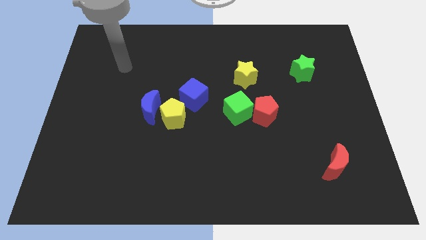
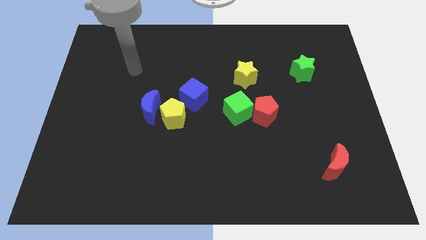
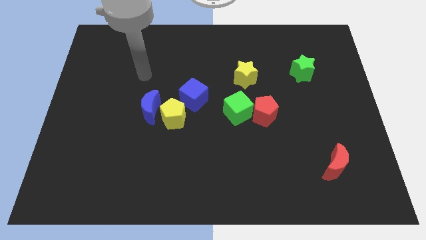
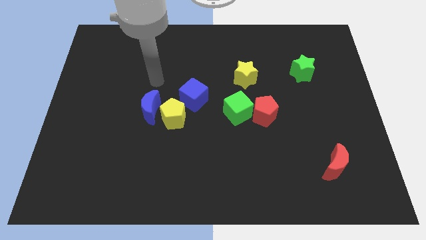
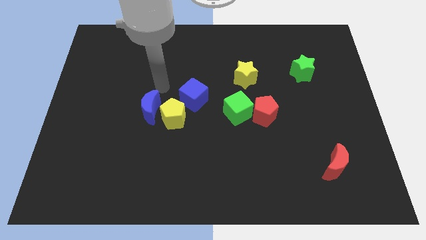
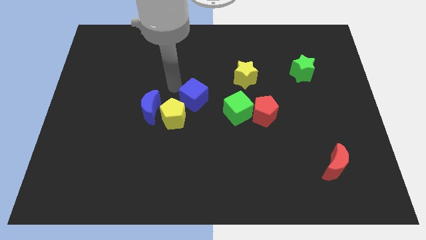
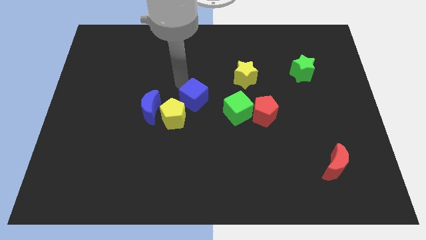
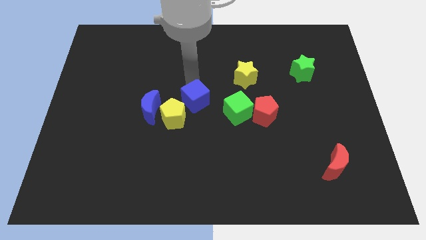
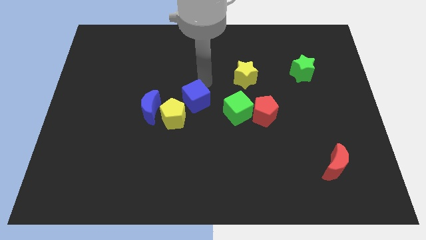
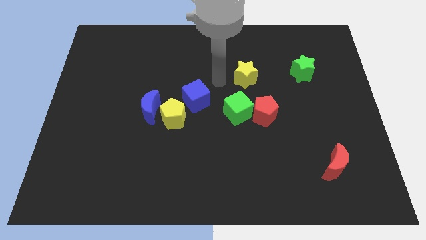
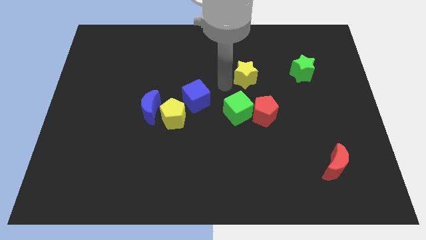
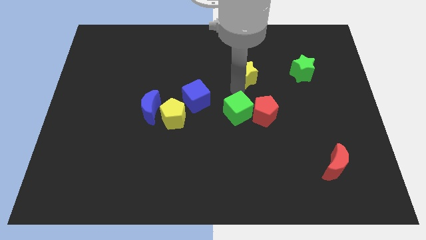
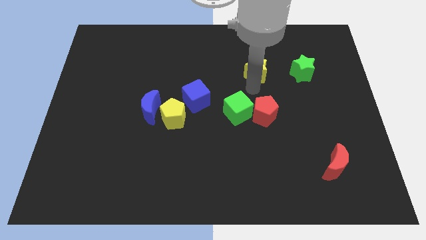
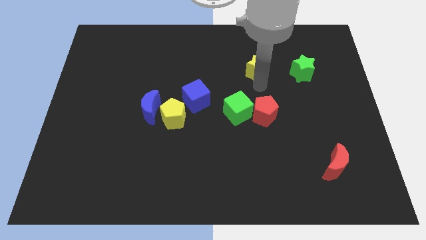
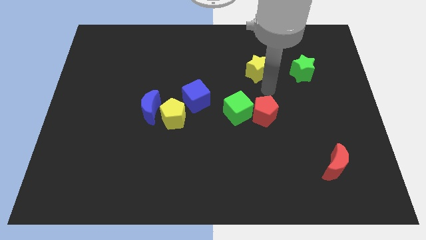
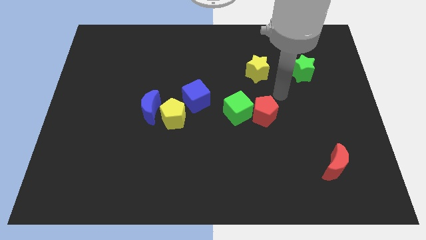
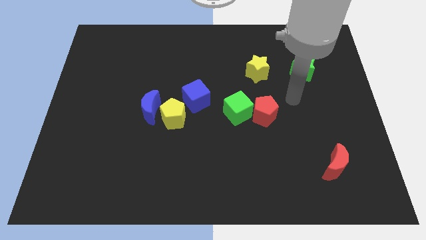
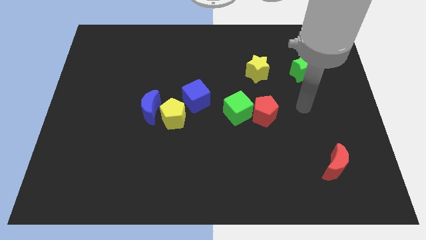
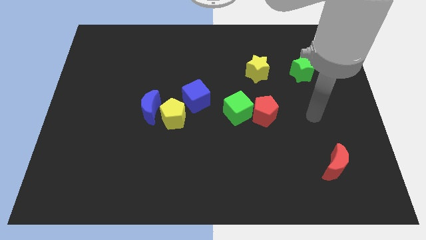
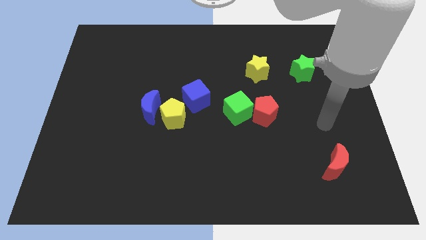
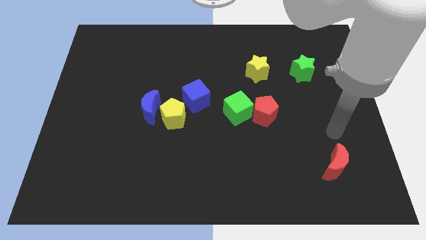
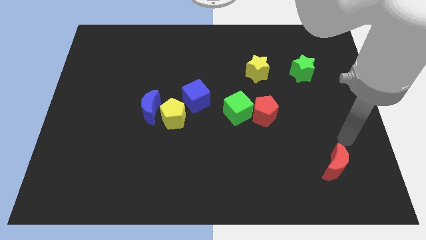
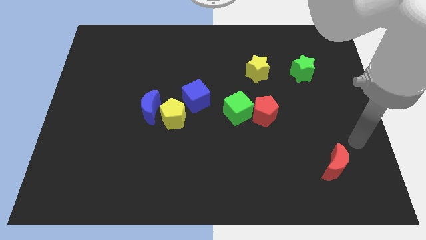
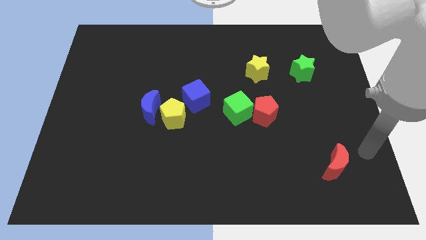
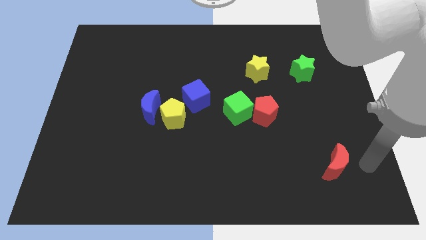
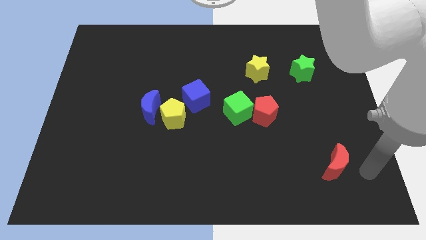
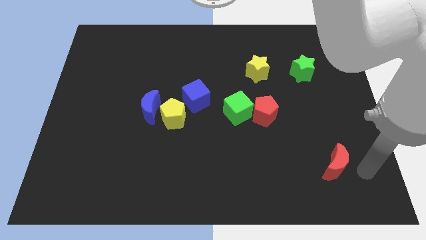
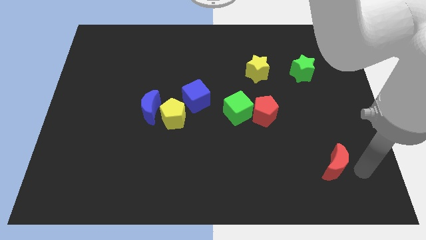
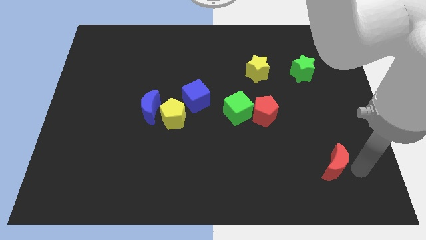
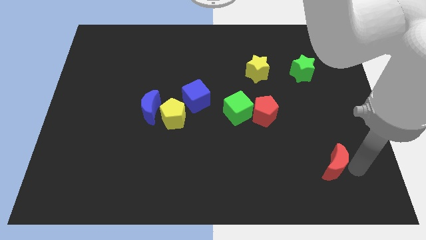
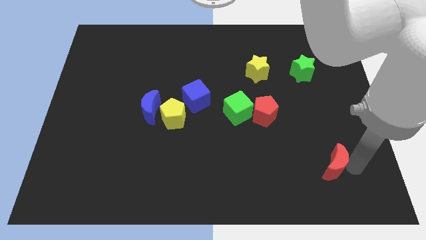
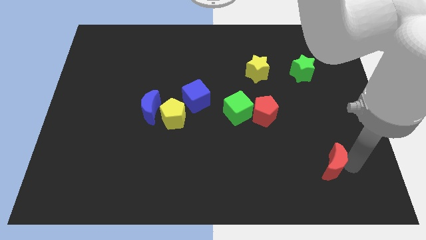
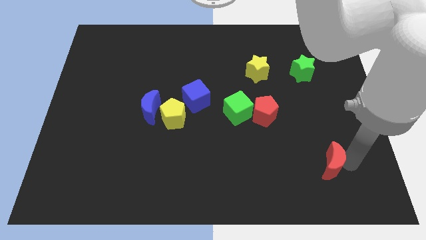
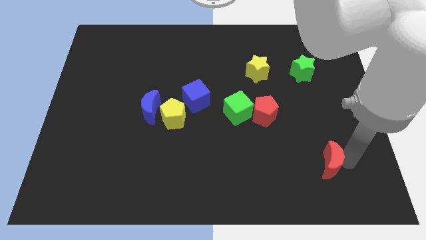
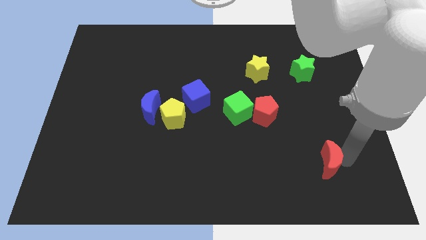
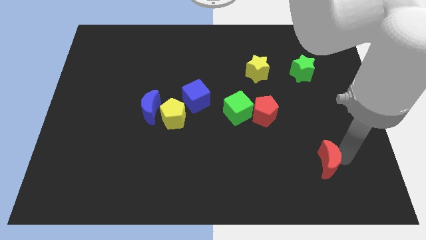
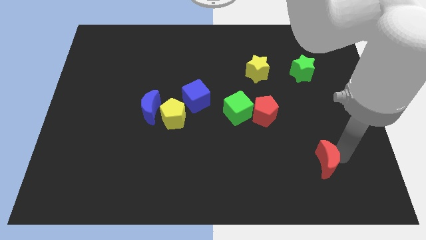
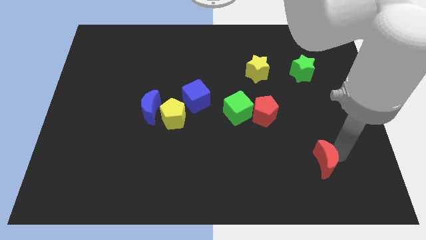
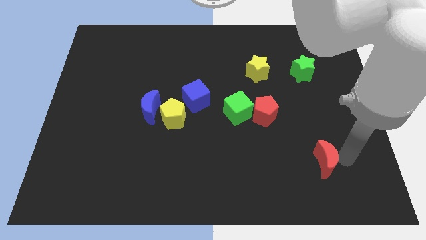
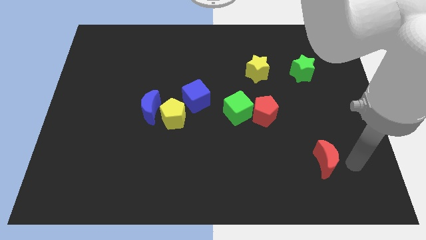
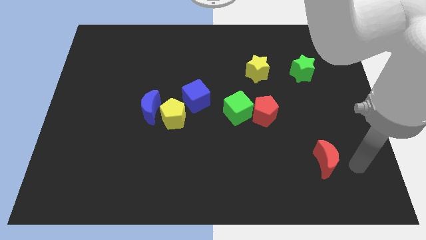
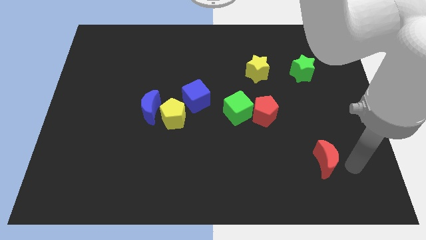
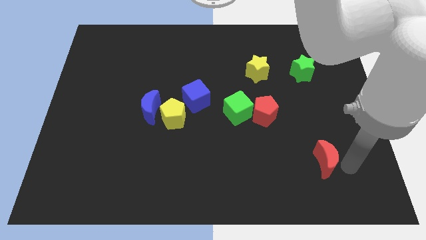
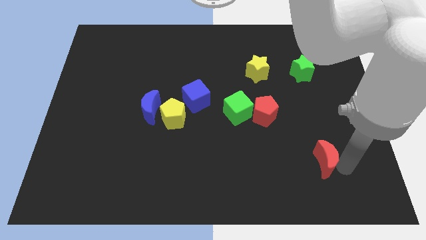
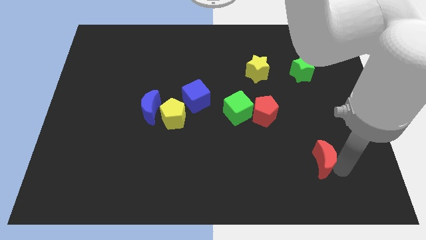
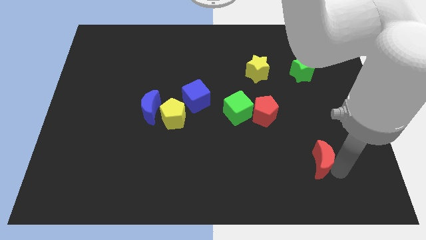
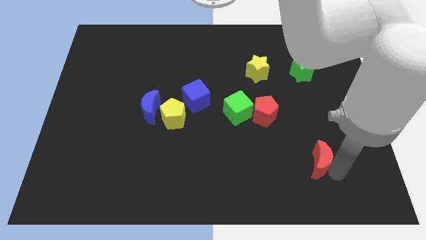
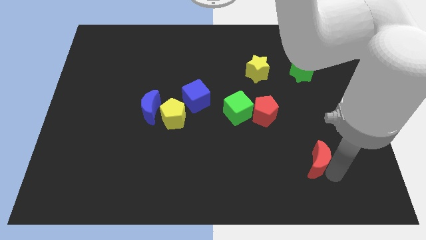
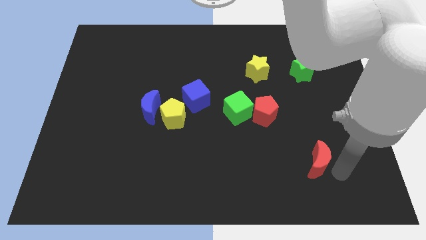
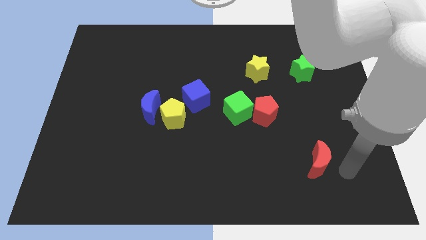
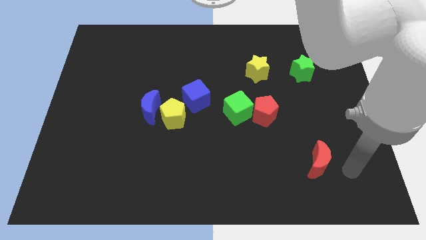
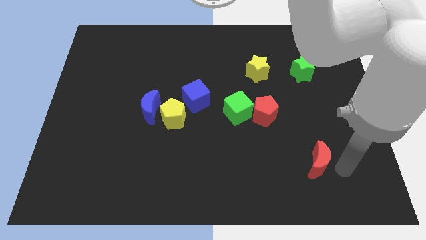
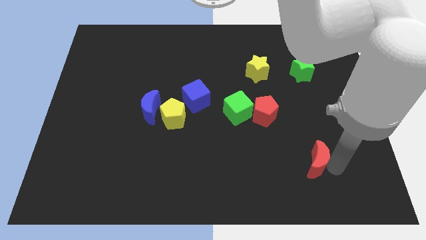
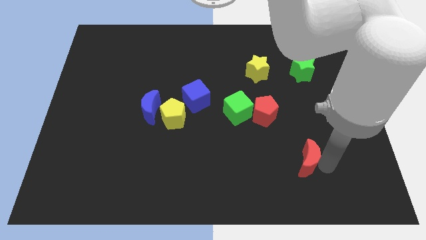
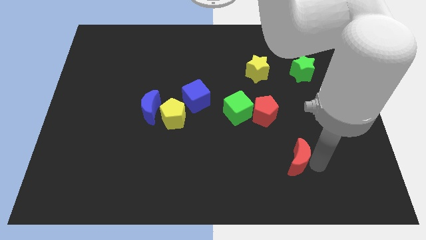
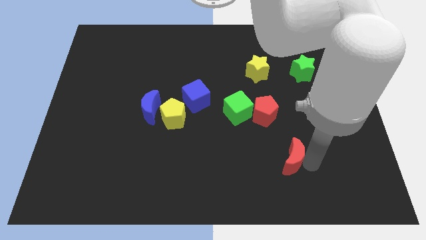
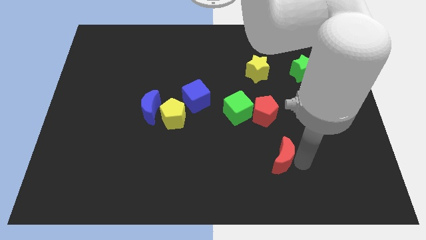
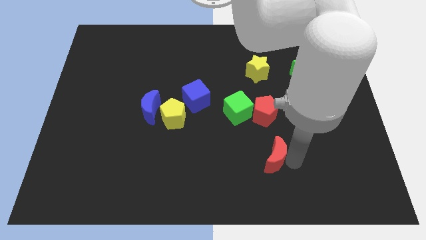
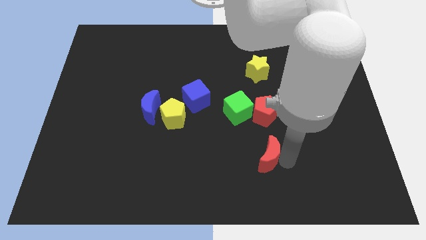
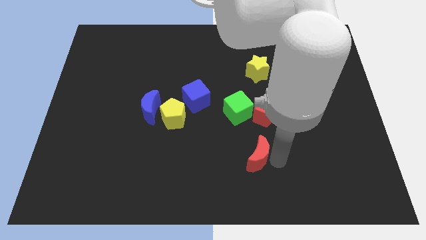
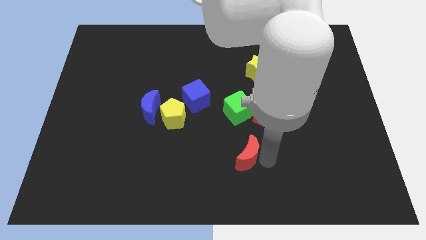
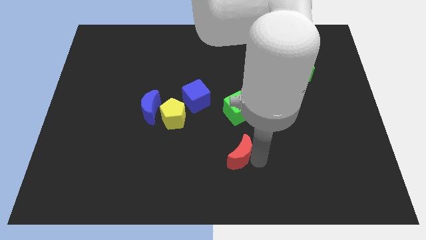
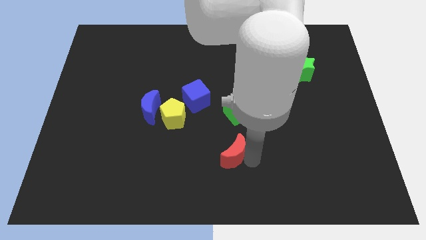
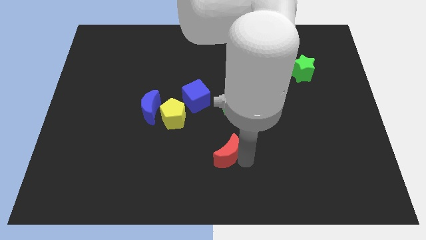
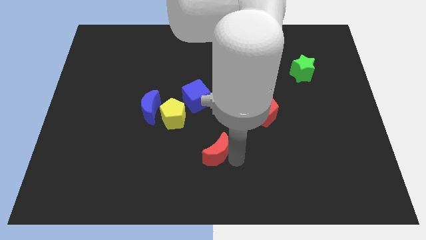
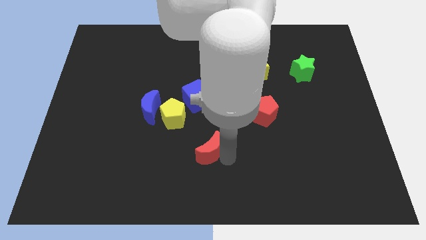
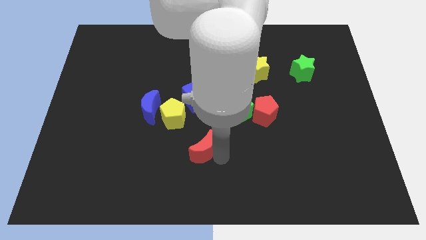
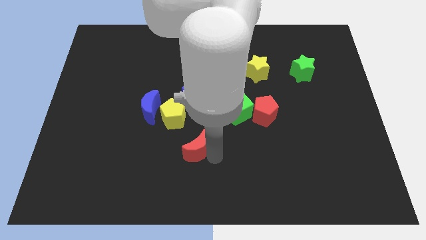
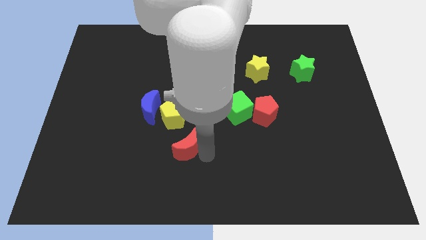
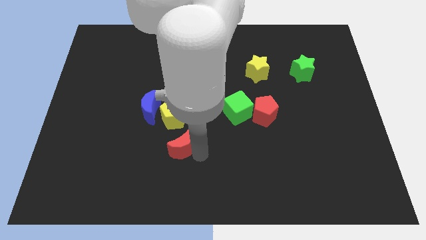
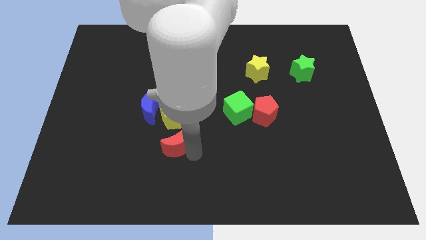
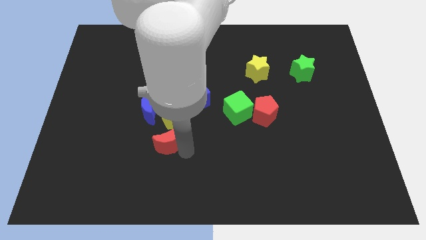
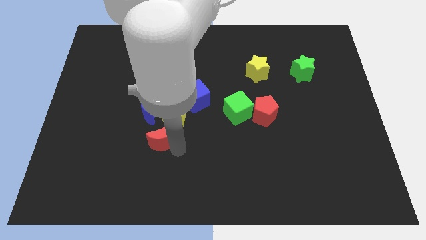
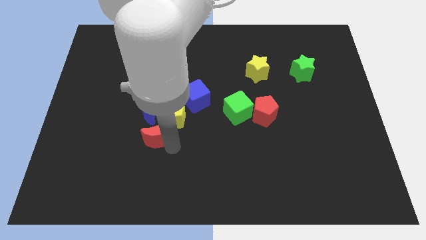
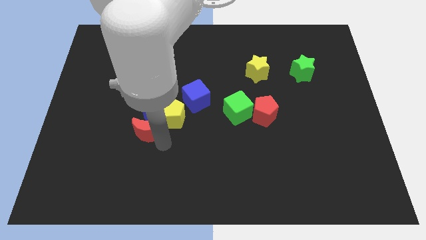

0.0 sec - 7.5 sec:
put the red moon next to the blue moon

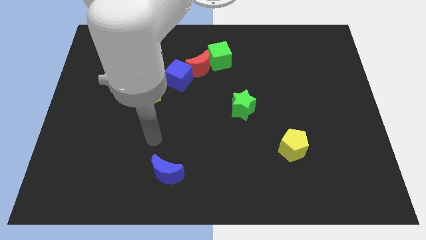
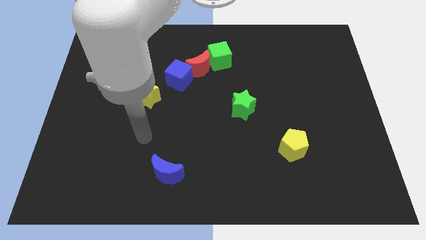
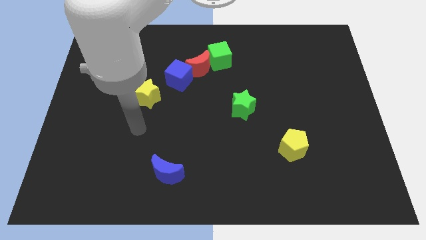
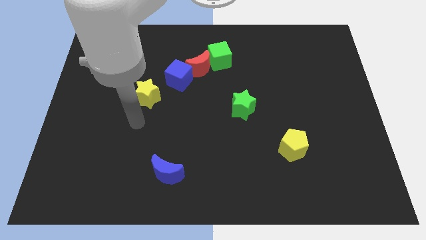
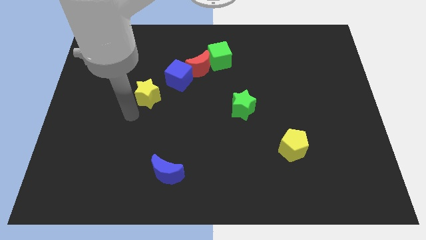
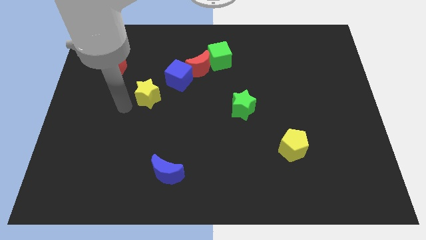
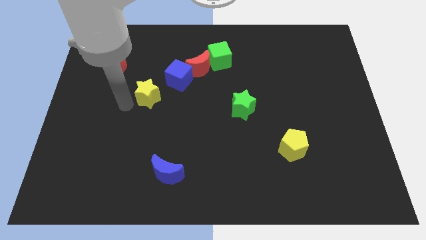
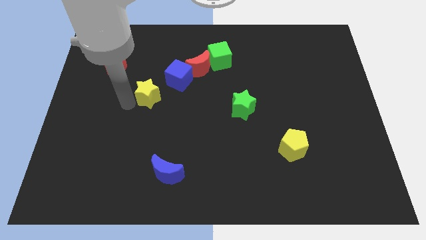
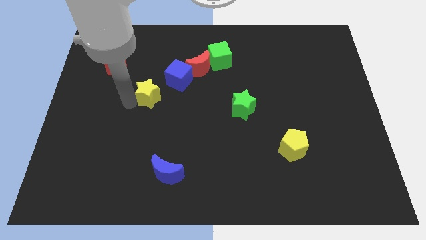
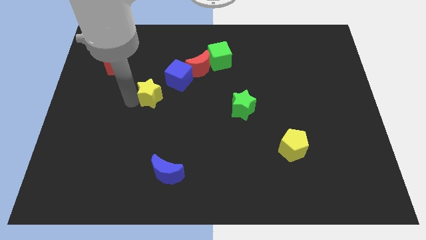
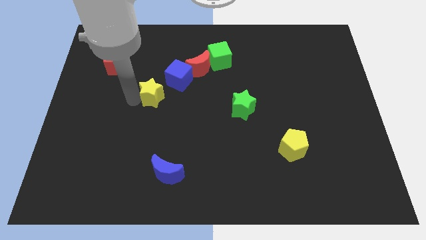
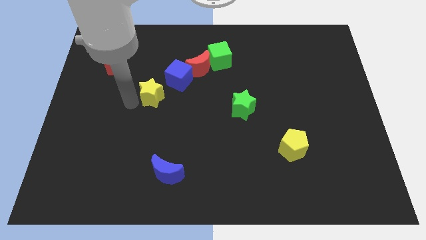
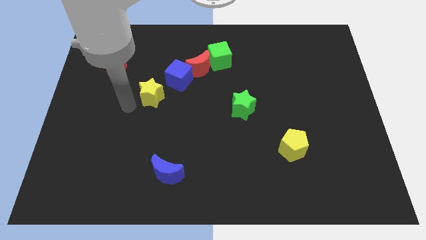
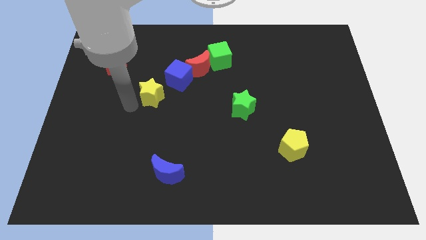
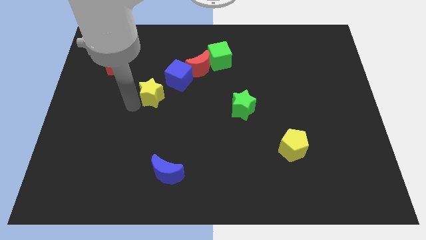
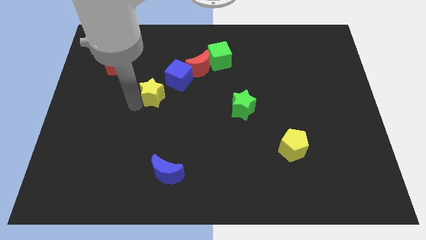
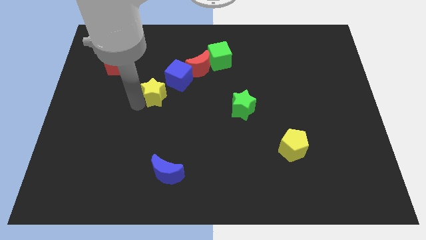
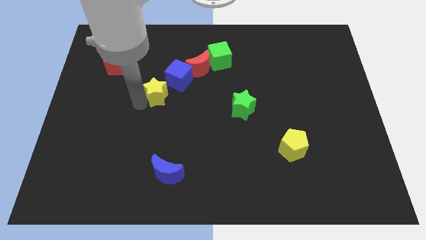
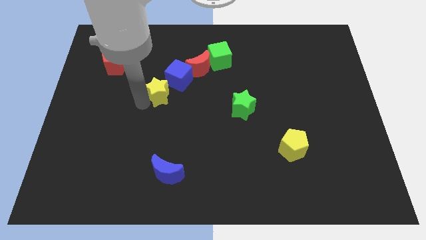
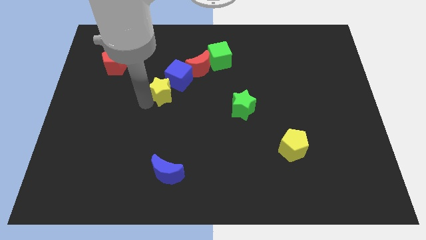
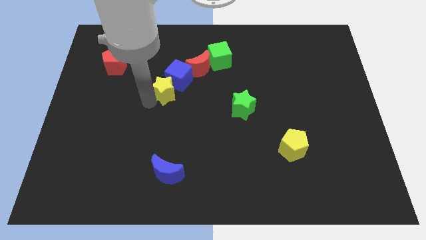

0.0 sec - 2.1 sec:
slide the yellow star close to the blue cube
